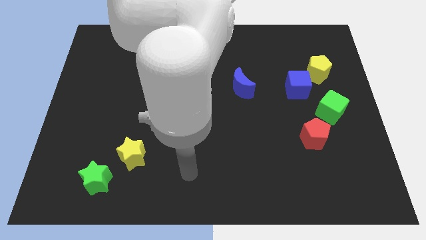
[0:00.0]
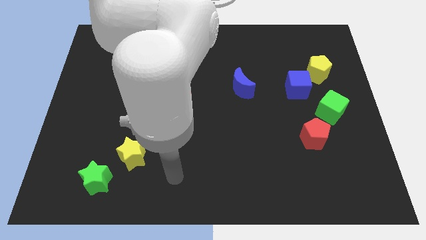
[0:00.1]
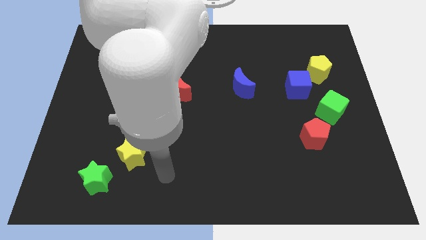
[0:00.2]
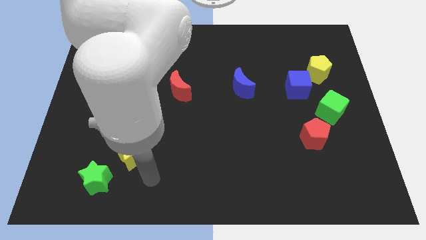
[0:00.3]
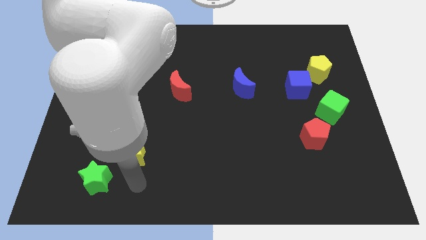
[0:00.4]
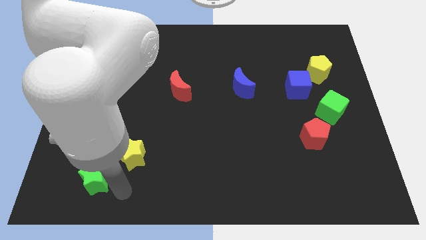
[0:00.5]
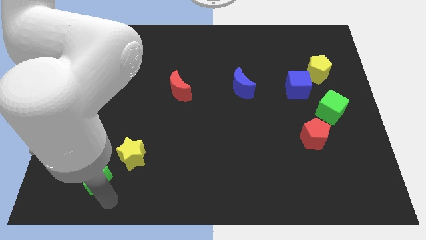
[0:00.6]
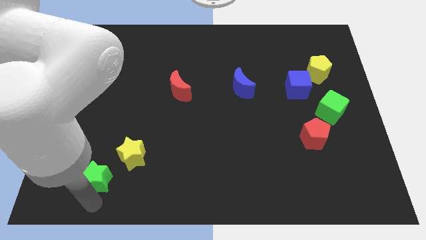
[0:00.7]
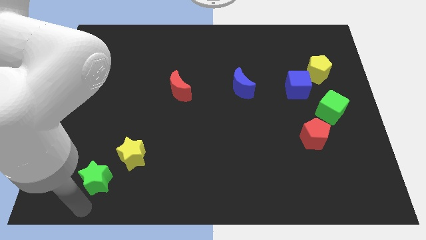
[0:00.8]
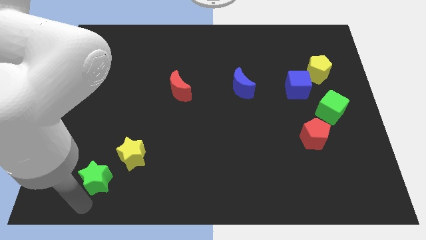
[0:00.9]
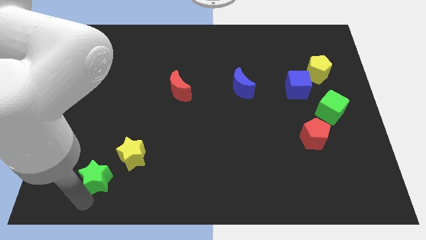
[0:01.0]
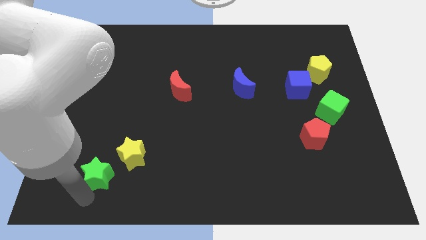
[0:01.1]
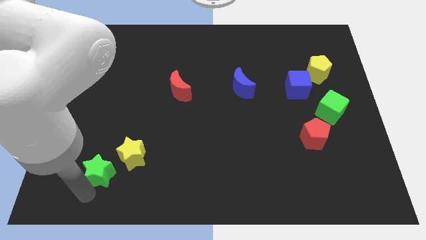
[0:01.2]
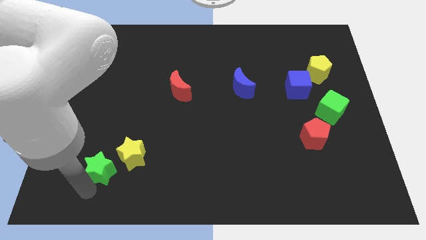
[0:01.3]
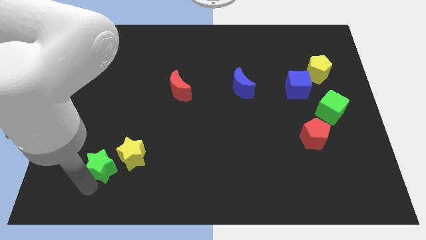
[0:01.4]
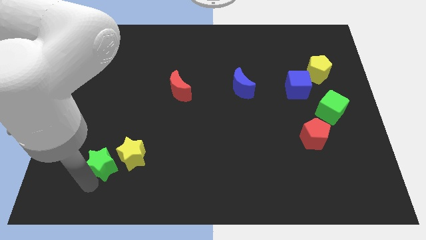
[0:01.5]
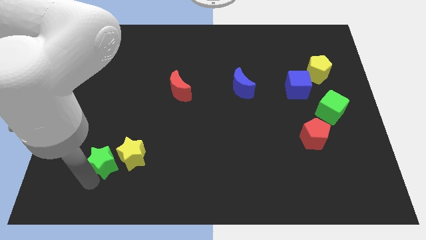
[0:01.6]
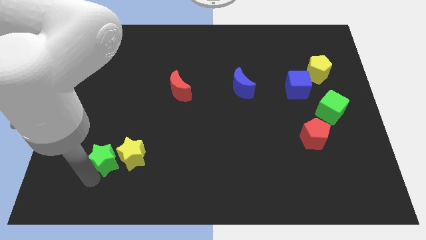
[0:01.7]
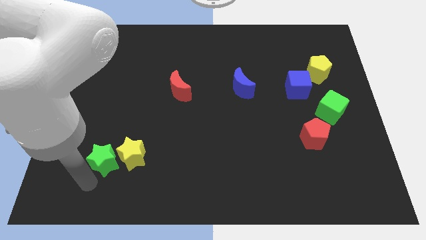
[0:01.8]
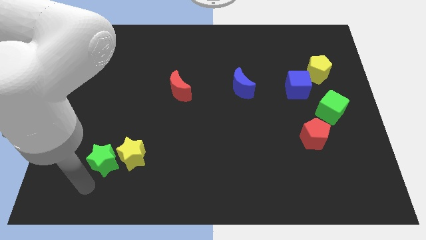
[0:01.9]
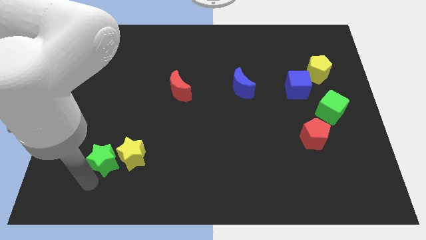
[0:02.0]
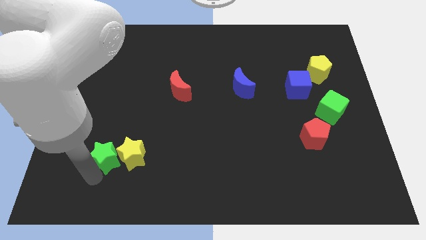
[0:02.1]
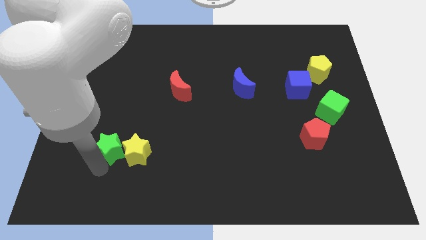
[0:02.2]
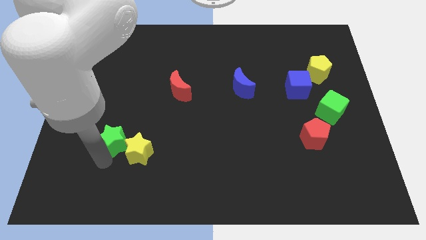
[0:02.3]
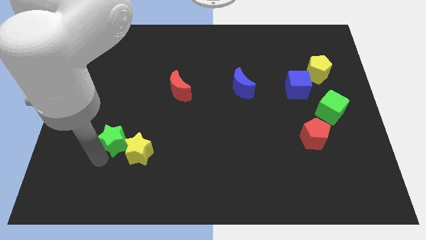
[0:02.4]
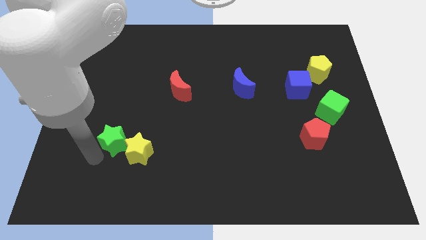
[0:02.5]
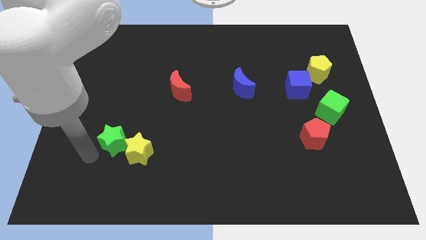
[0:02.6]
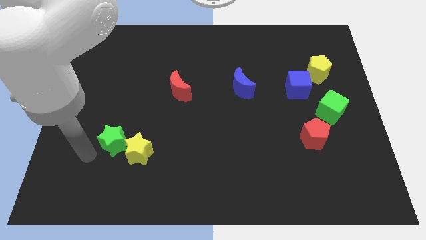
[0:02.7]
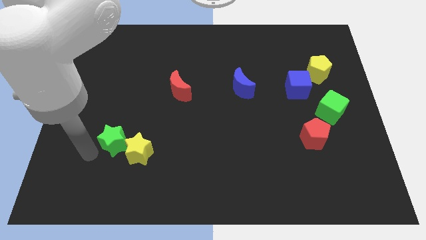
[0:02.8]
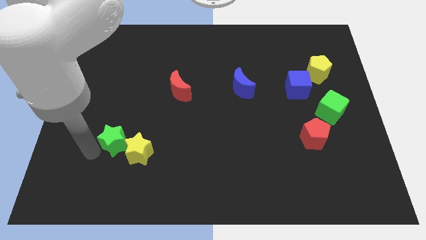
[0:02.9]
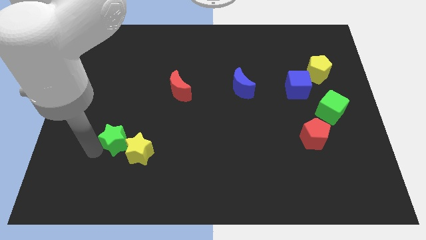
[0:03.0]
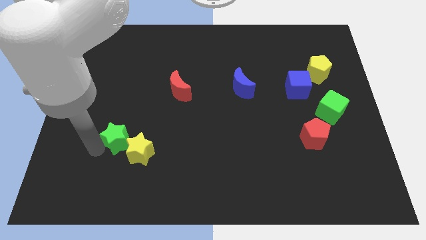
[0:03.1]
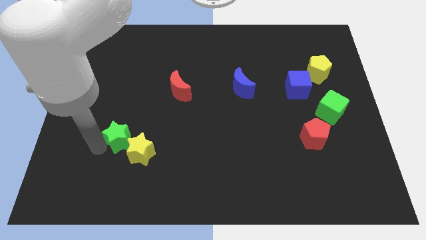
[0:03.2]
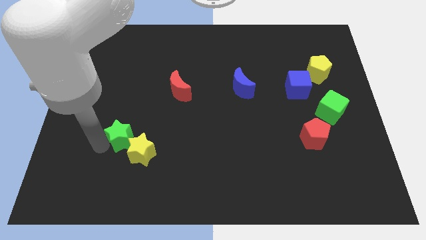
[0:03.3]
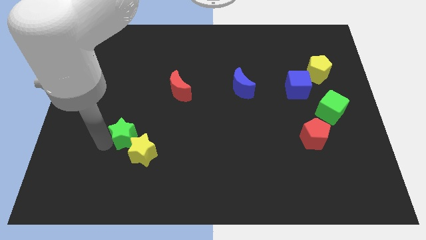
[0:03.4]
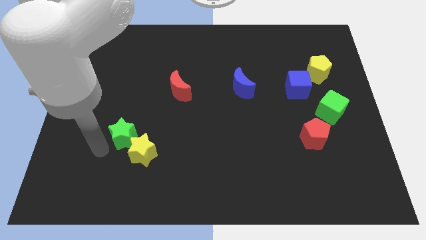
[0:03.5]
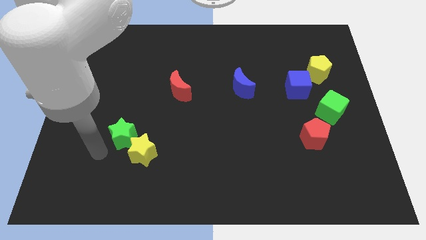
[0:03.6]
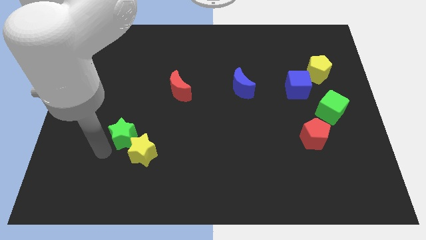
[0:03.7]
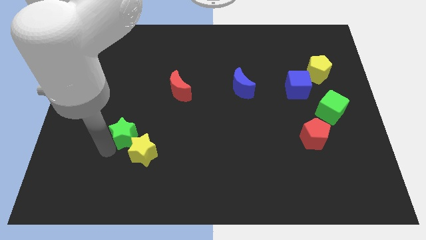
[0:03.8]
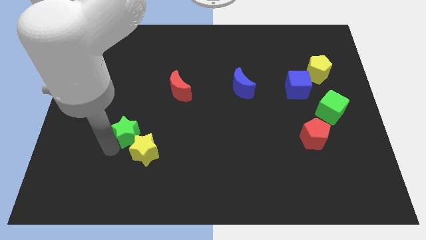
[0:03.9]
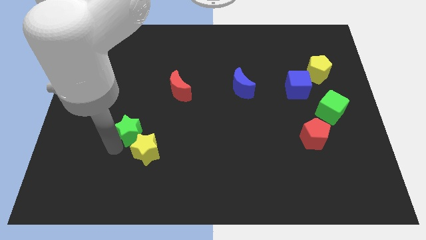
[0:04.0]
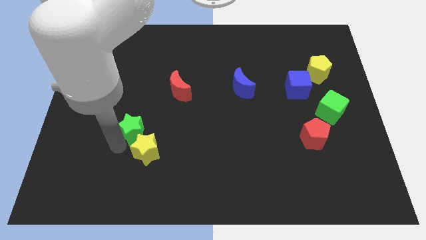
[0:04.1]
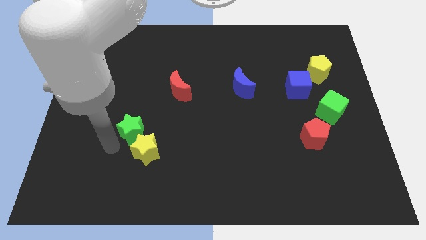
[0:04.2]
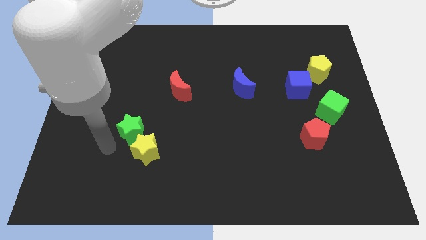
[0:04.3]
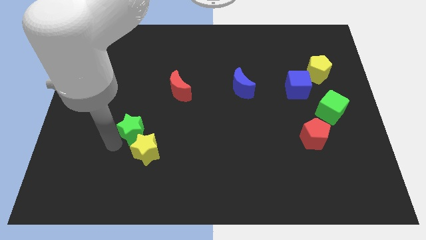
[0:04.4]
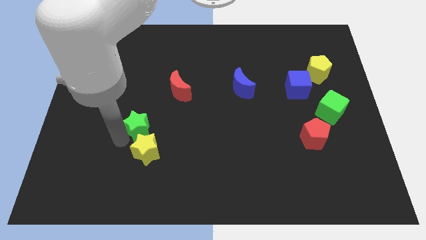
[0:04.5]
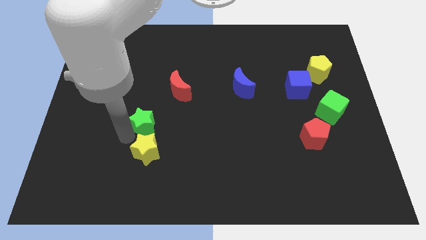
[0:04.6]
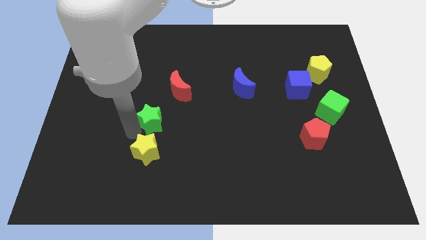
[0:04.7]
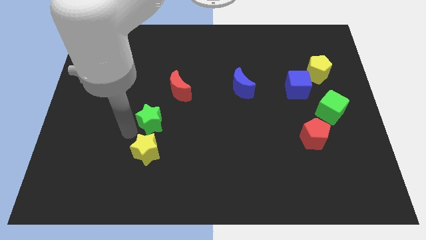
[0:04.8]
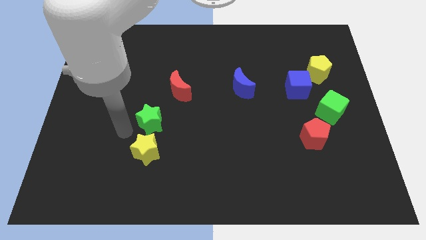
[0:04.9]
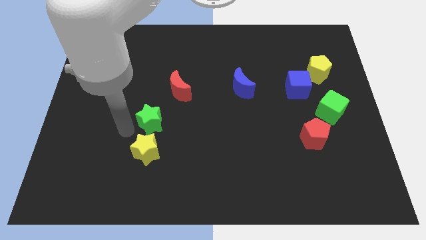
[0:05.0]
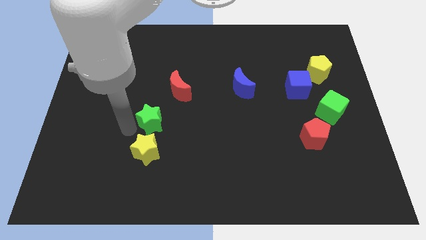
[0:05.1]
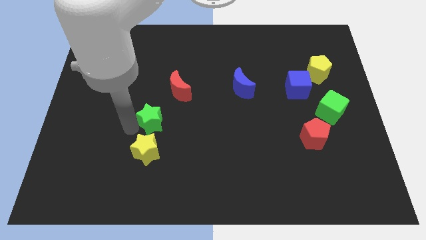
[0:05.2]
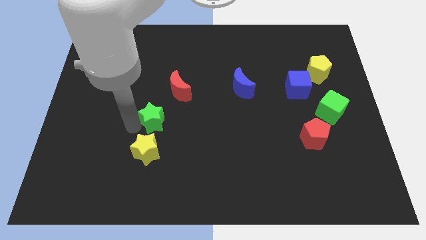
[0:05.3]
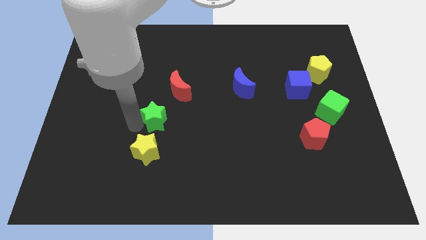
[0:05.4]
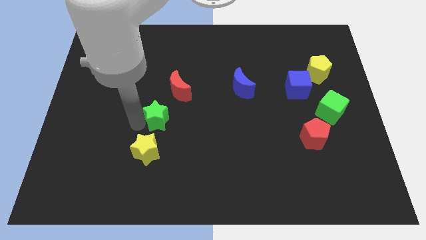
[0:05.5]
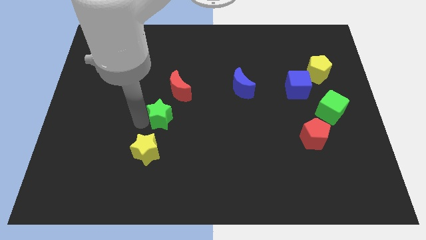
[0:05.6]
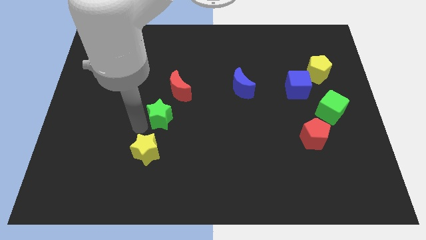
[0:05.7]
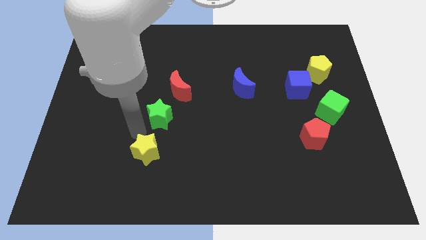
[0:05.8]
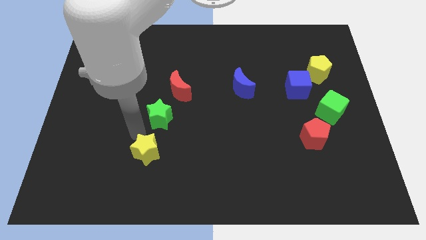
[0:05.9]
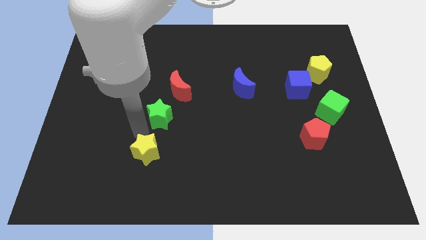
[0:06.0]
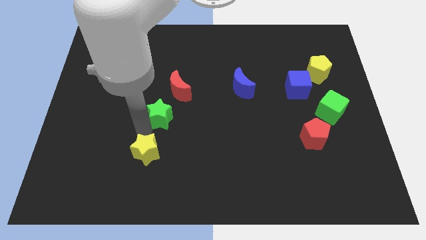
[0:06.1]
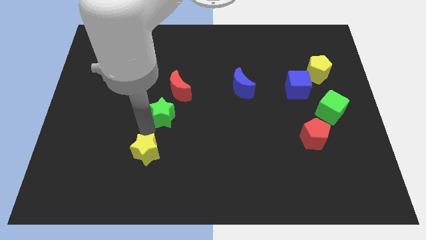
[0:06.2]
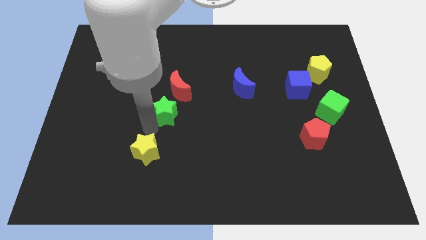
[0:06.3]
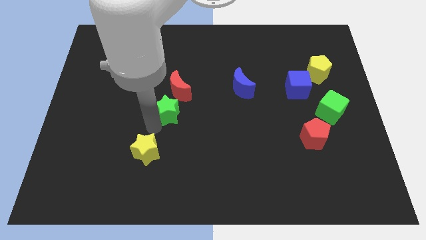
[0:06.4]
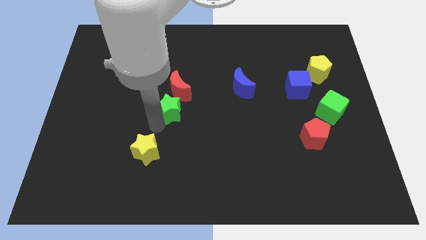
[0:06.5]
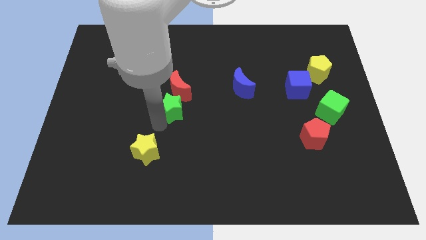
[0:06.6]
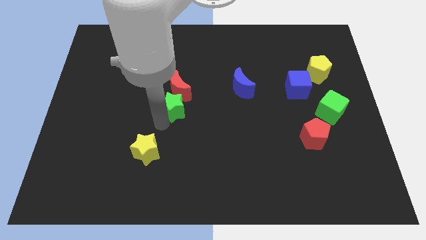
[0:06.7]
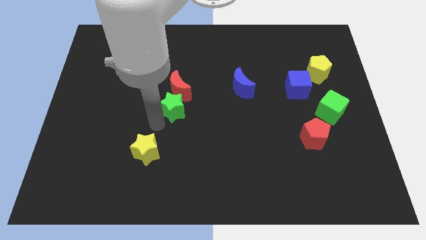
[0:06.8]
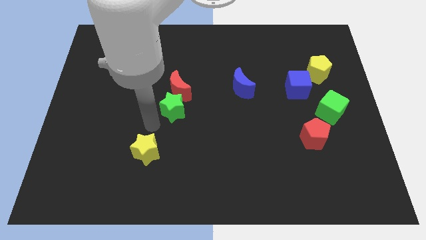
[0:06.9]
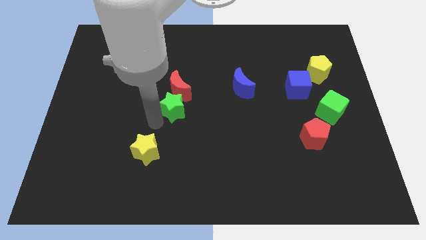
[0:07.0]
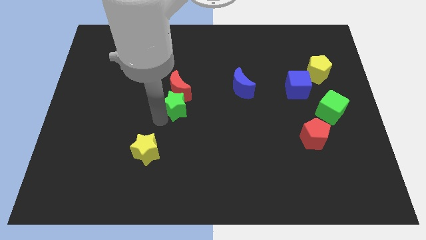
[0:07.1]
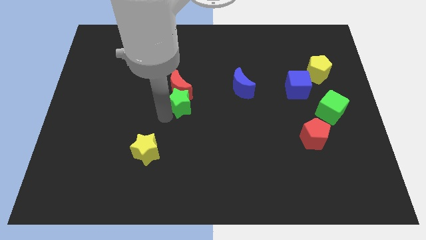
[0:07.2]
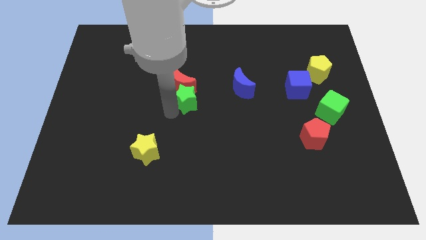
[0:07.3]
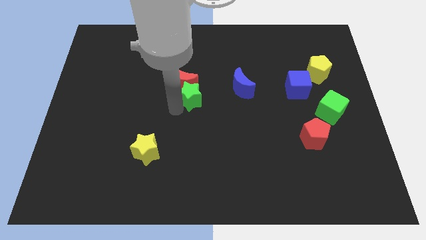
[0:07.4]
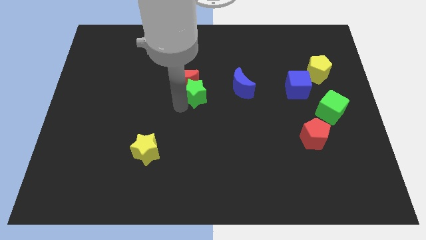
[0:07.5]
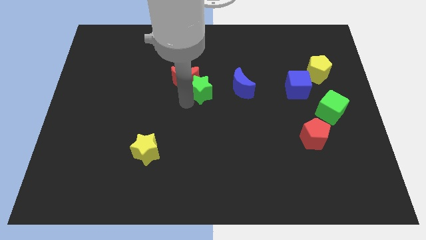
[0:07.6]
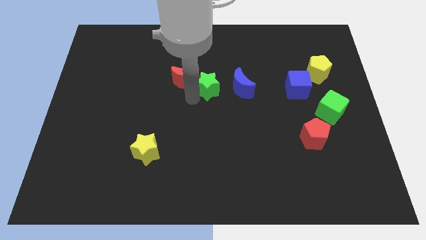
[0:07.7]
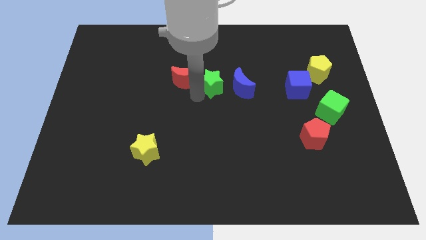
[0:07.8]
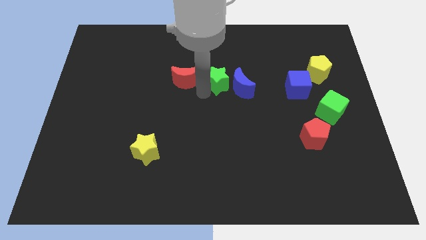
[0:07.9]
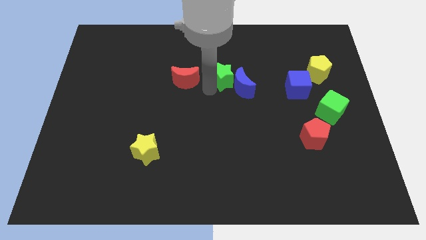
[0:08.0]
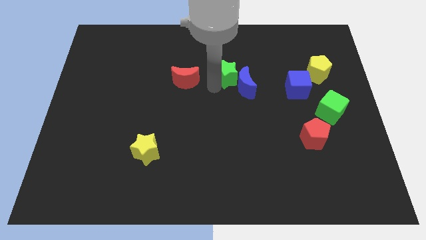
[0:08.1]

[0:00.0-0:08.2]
move the green star to the top of the blue moon
